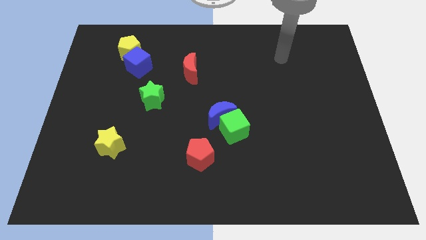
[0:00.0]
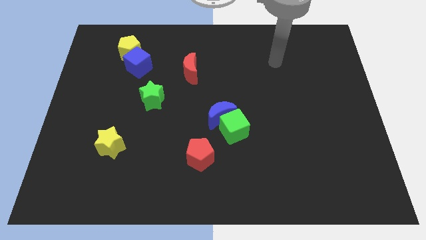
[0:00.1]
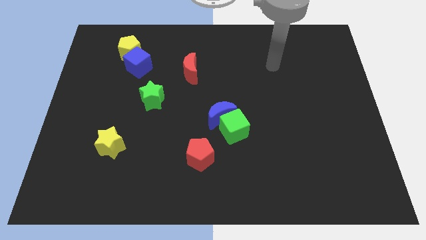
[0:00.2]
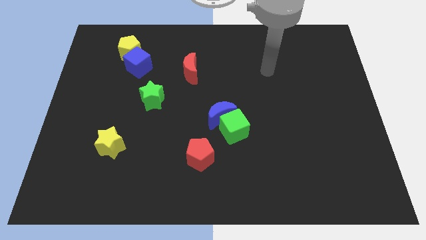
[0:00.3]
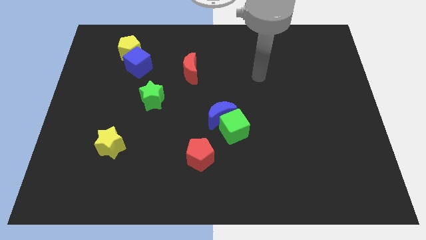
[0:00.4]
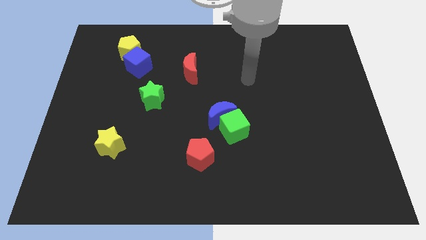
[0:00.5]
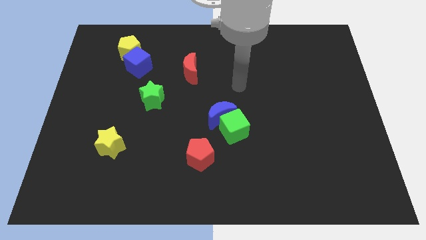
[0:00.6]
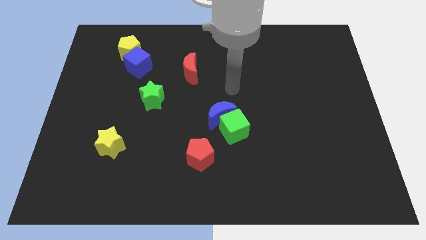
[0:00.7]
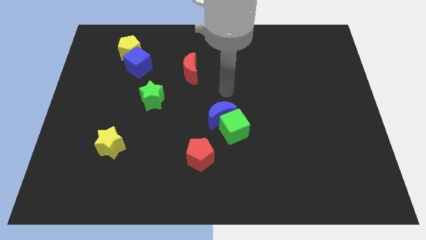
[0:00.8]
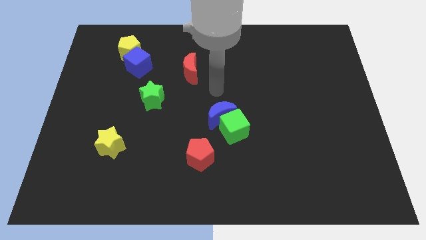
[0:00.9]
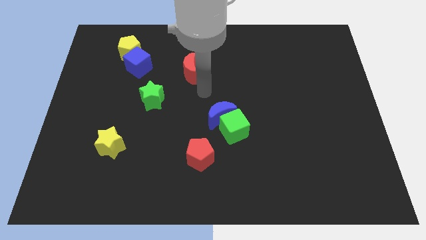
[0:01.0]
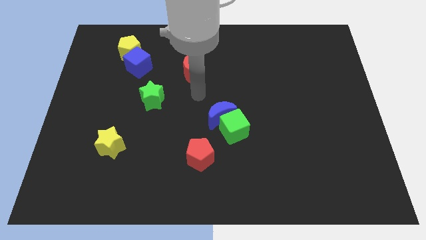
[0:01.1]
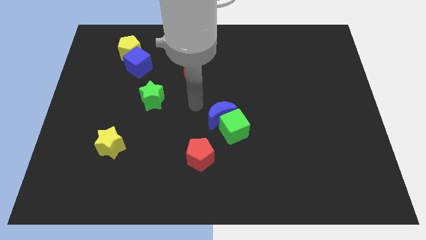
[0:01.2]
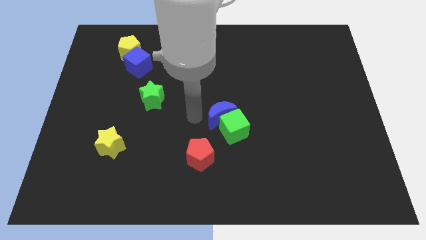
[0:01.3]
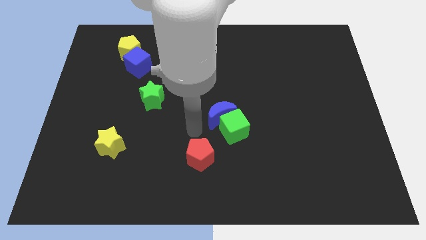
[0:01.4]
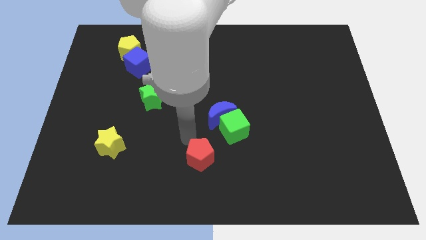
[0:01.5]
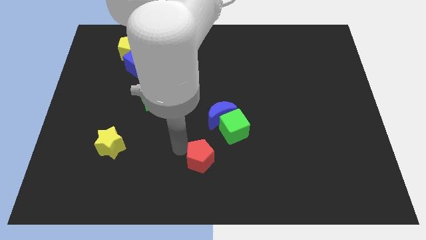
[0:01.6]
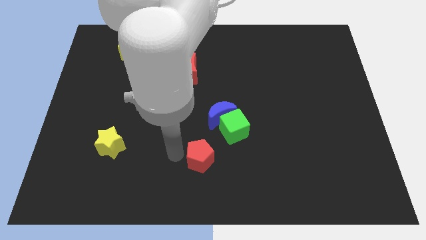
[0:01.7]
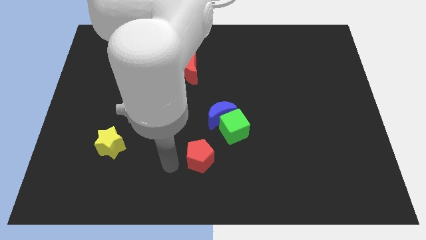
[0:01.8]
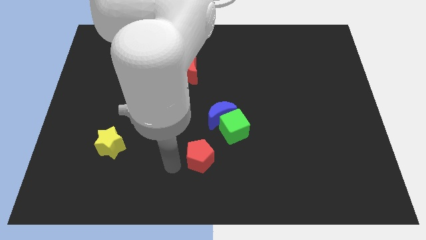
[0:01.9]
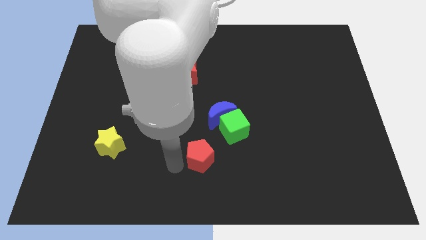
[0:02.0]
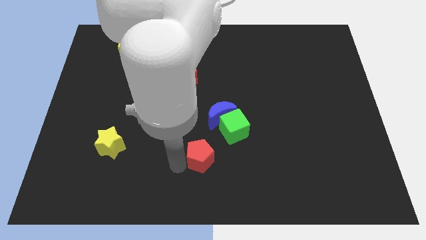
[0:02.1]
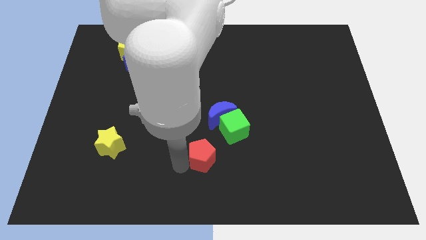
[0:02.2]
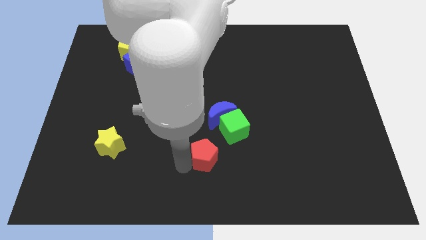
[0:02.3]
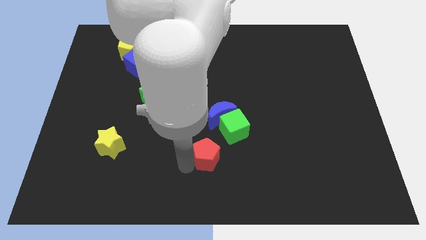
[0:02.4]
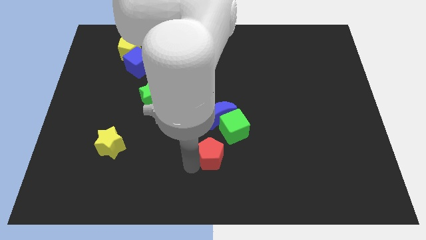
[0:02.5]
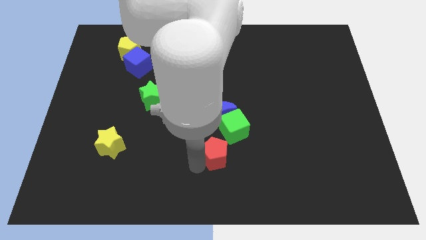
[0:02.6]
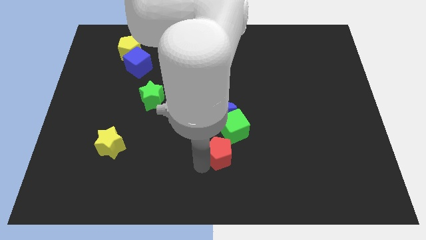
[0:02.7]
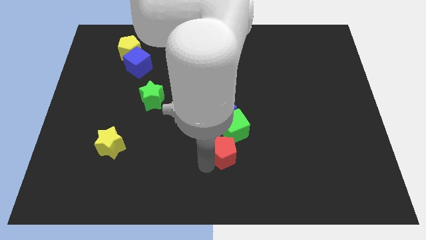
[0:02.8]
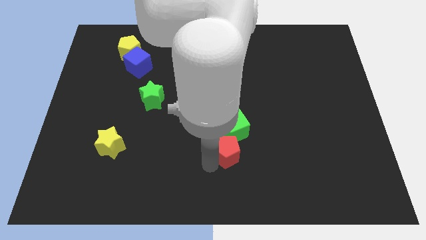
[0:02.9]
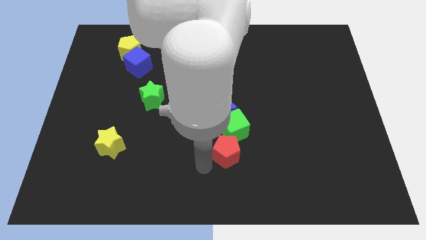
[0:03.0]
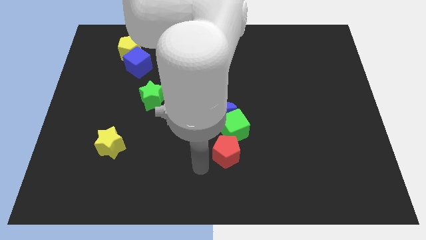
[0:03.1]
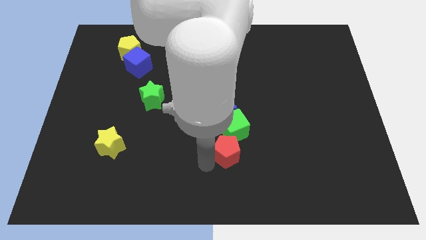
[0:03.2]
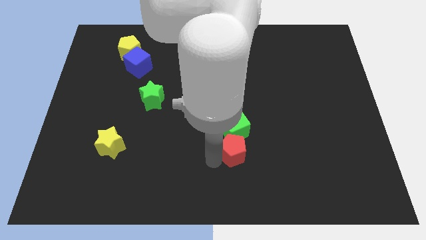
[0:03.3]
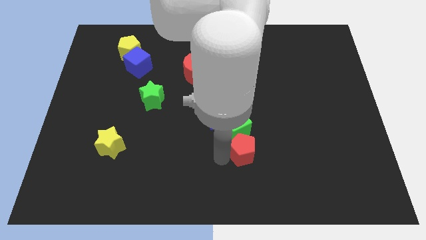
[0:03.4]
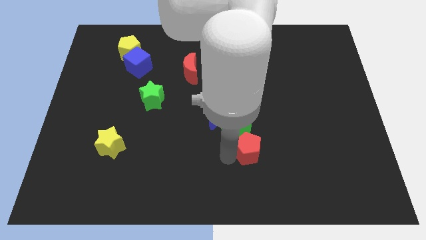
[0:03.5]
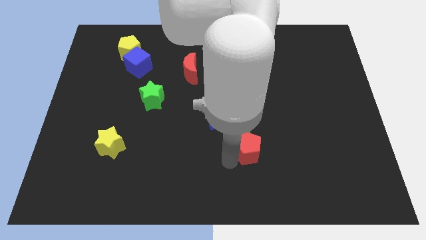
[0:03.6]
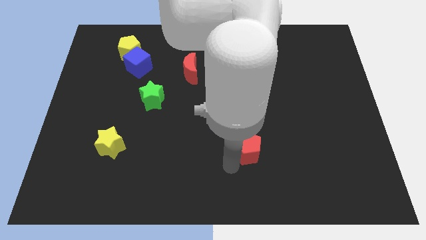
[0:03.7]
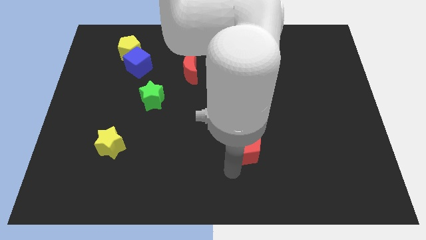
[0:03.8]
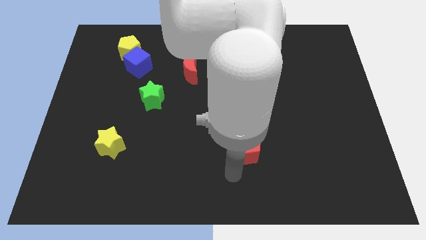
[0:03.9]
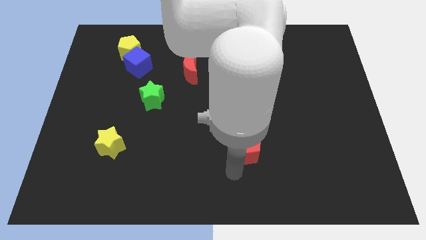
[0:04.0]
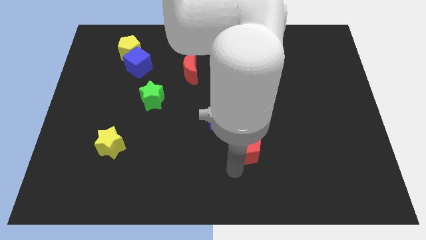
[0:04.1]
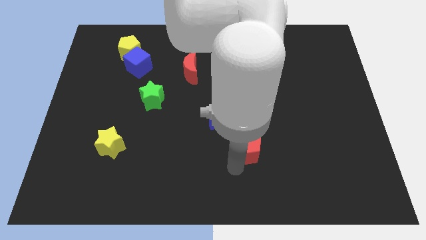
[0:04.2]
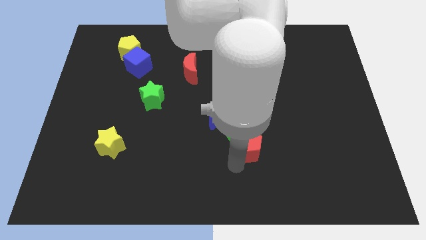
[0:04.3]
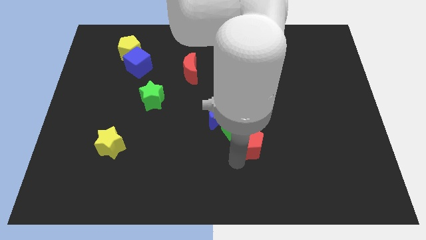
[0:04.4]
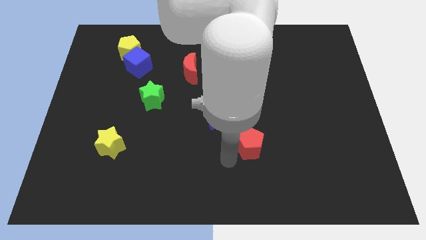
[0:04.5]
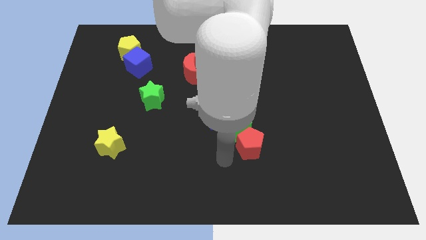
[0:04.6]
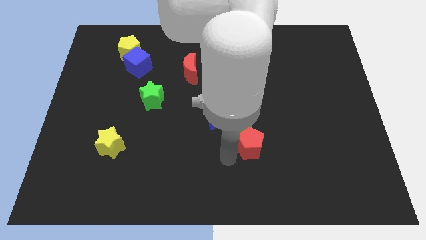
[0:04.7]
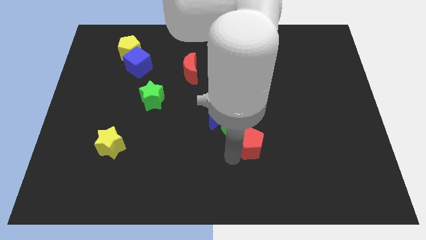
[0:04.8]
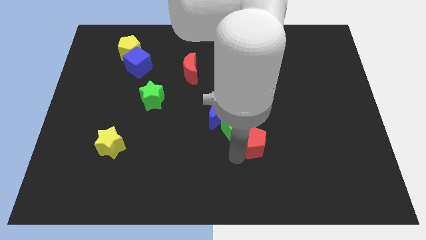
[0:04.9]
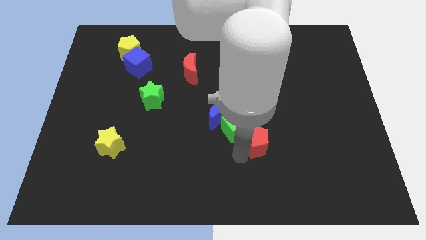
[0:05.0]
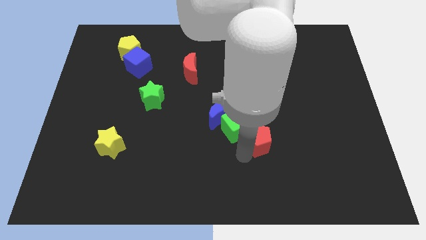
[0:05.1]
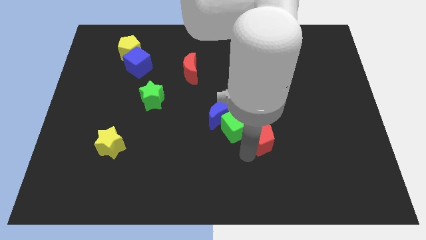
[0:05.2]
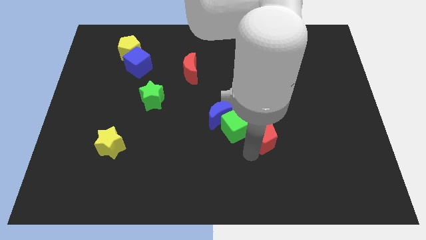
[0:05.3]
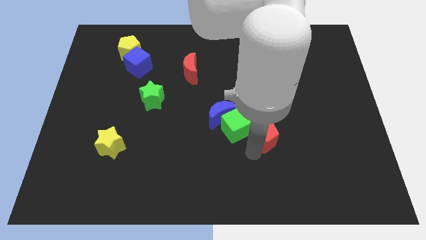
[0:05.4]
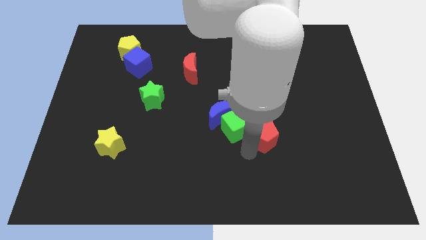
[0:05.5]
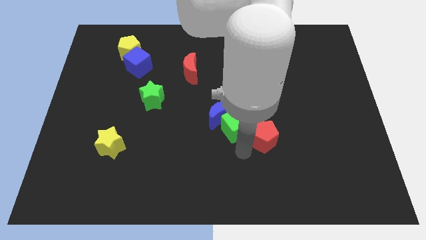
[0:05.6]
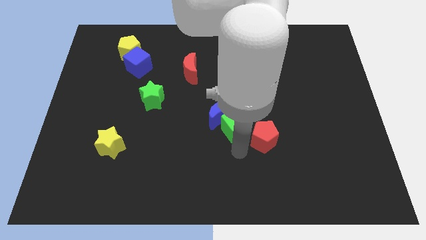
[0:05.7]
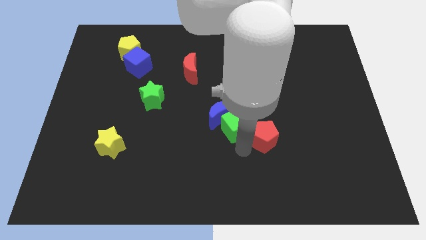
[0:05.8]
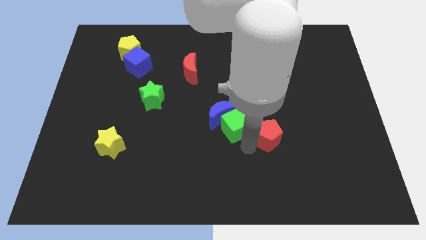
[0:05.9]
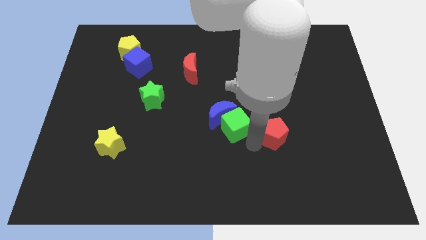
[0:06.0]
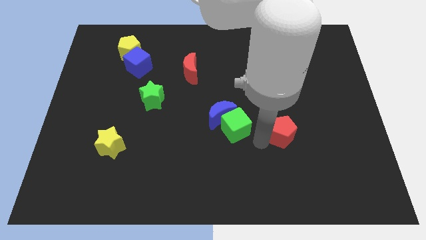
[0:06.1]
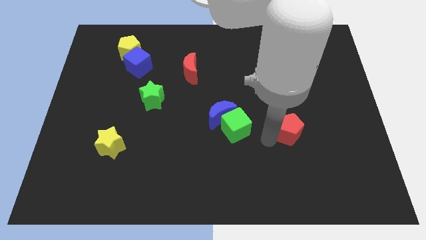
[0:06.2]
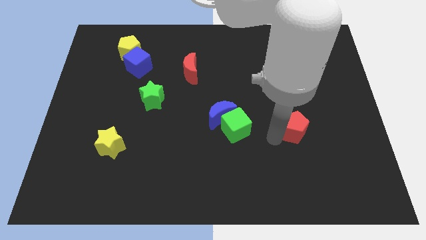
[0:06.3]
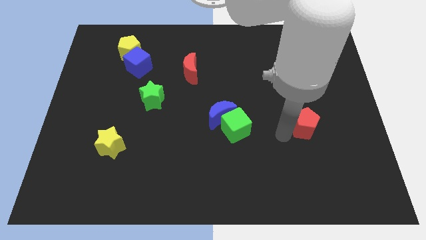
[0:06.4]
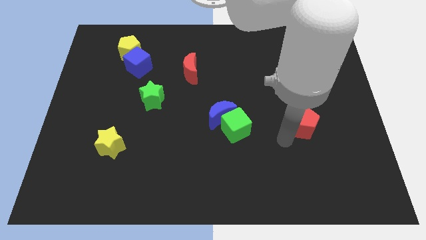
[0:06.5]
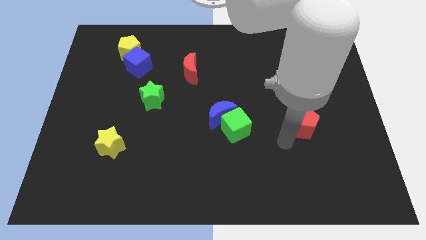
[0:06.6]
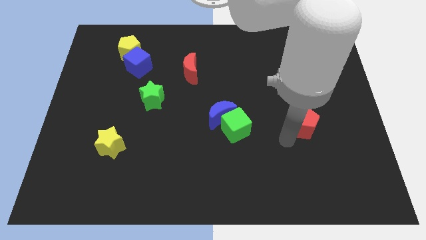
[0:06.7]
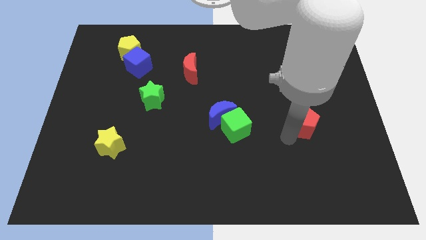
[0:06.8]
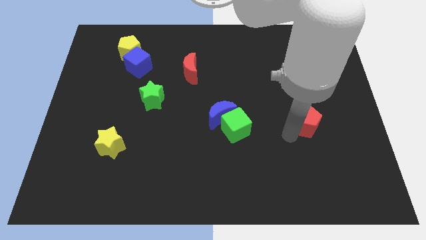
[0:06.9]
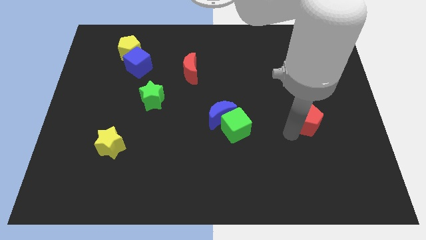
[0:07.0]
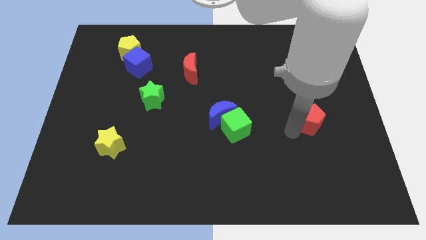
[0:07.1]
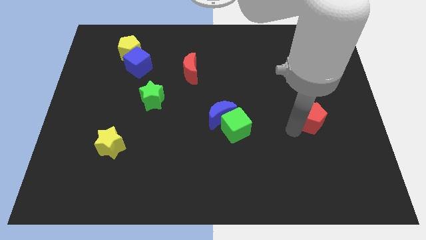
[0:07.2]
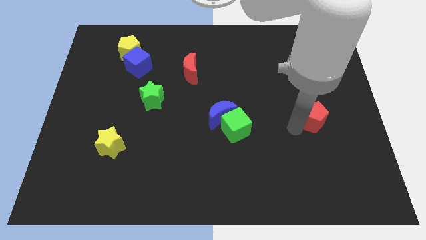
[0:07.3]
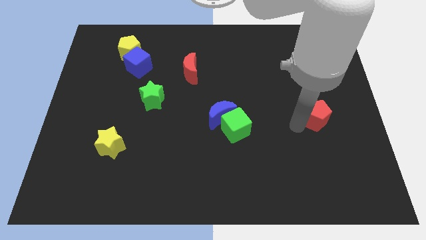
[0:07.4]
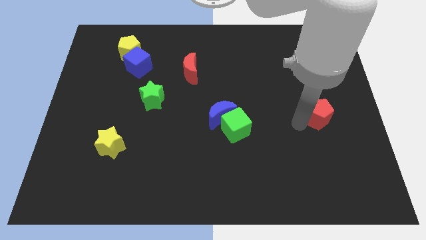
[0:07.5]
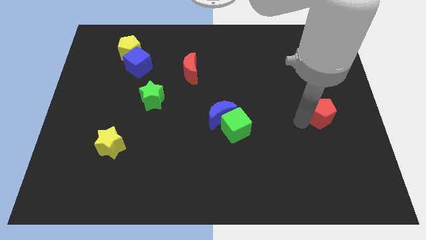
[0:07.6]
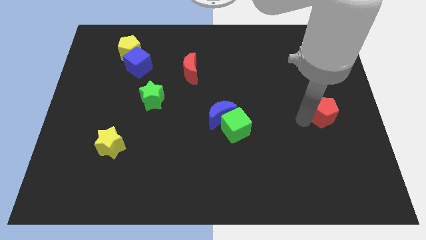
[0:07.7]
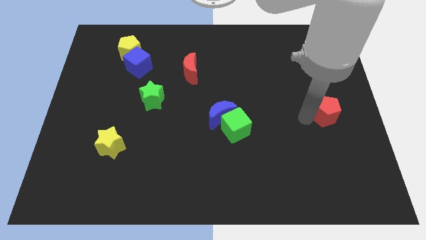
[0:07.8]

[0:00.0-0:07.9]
push the red pentagon to the center right
